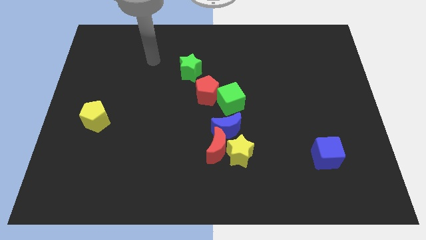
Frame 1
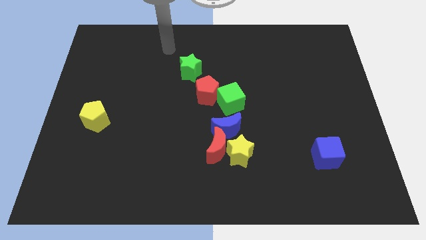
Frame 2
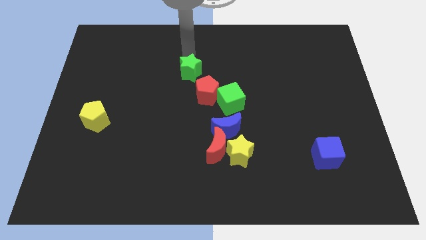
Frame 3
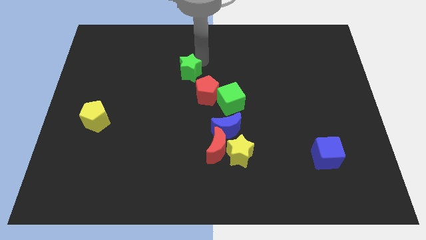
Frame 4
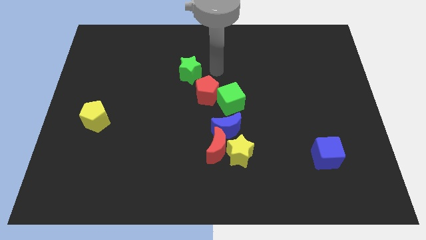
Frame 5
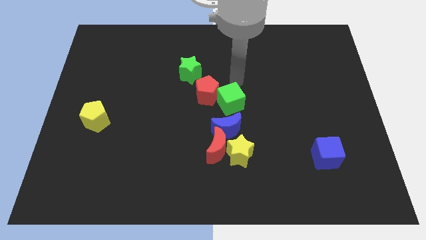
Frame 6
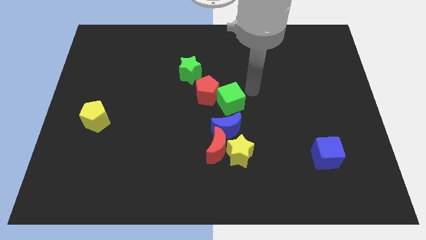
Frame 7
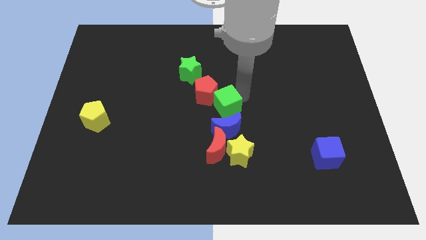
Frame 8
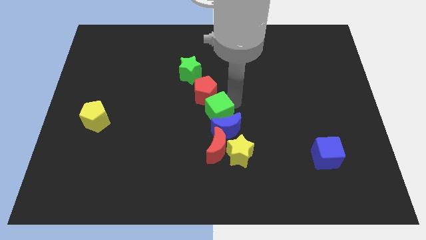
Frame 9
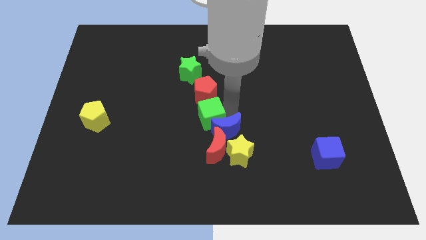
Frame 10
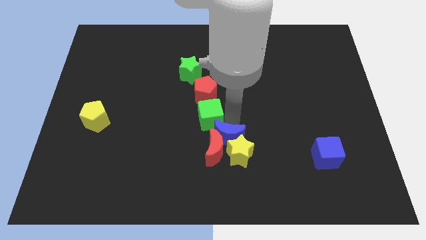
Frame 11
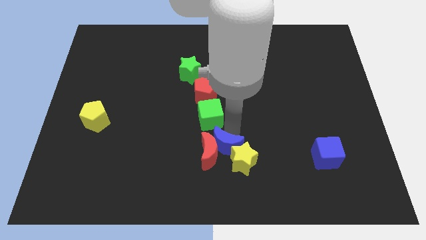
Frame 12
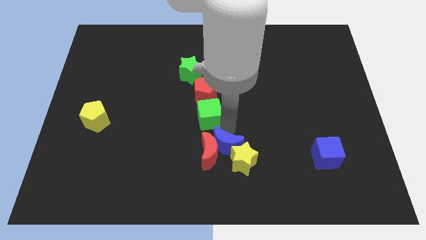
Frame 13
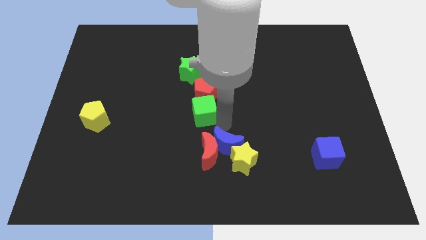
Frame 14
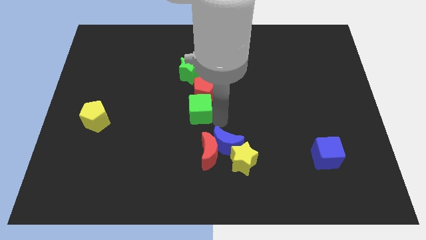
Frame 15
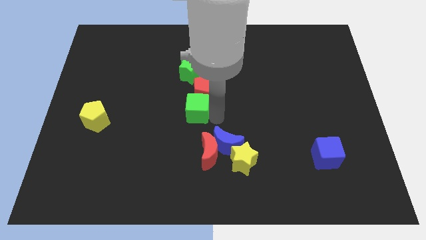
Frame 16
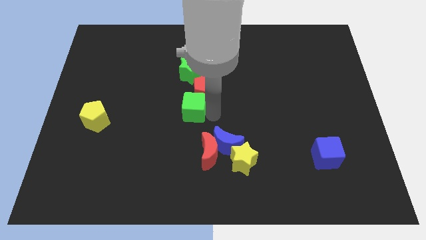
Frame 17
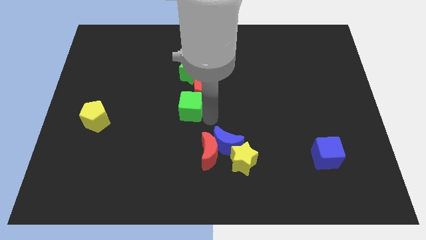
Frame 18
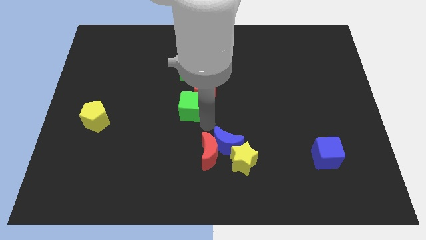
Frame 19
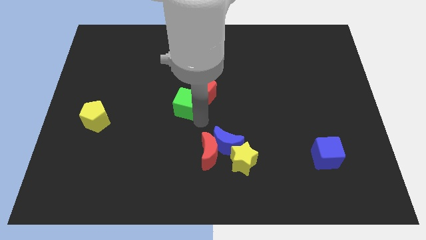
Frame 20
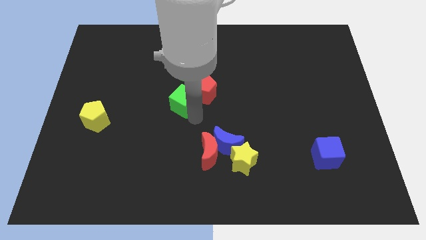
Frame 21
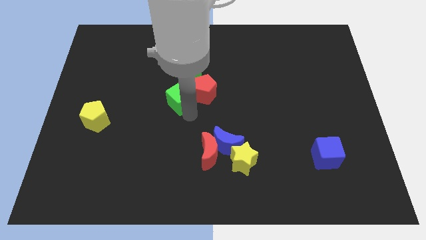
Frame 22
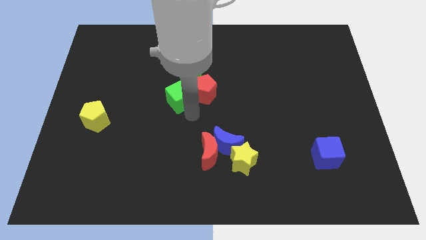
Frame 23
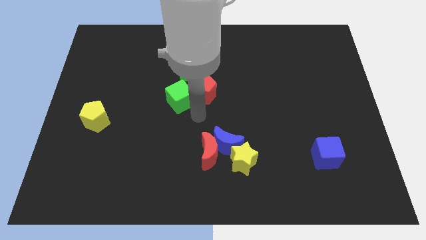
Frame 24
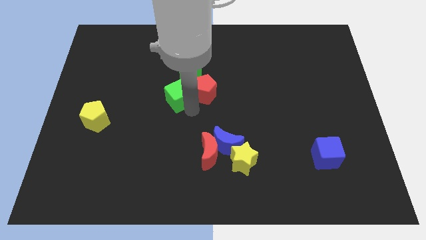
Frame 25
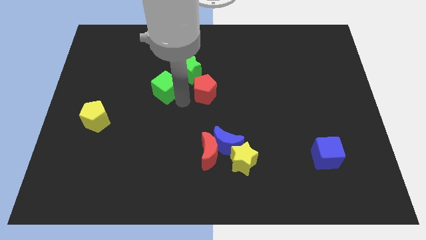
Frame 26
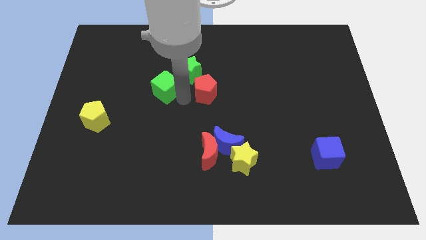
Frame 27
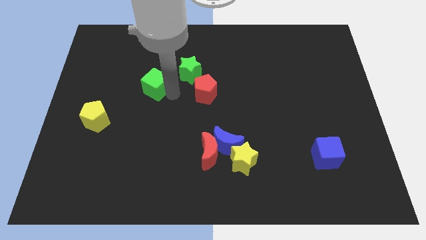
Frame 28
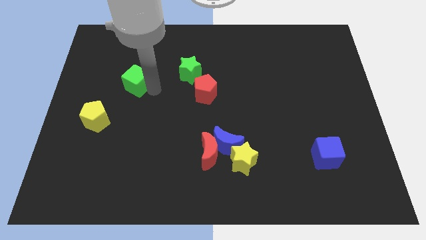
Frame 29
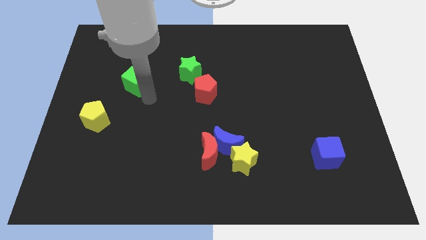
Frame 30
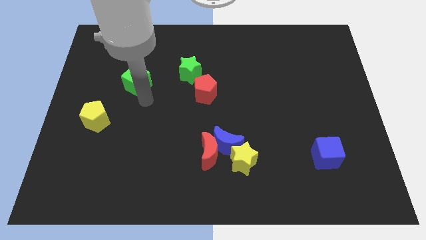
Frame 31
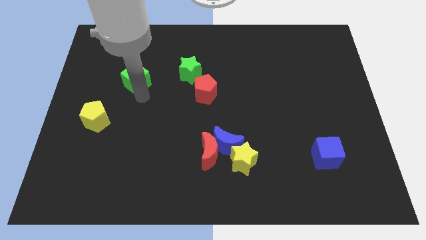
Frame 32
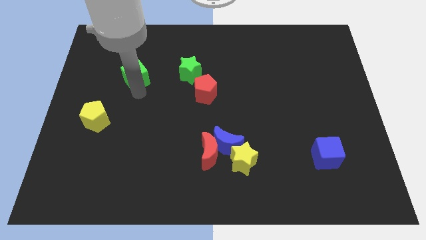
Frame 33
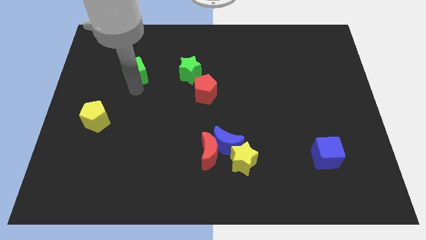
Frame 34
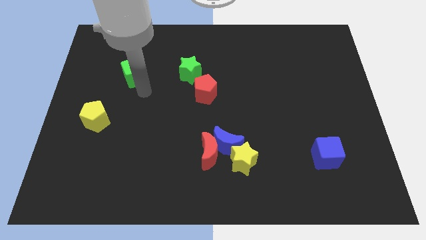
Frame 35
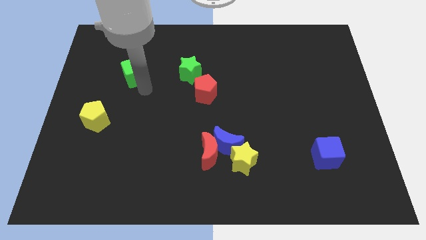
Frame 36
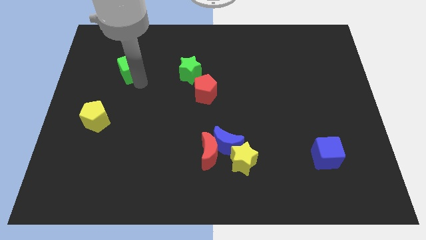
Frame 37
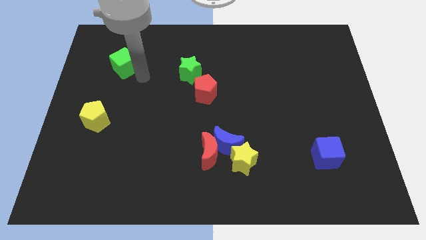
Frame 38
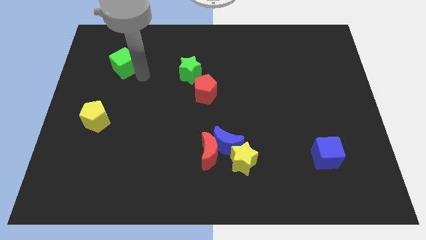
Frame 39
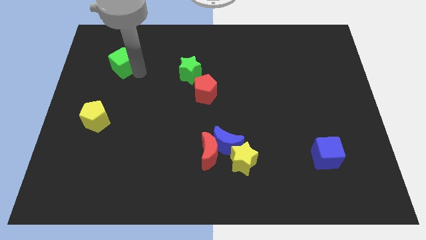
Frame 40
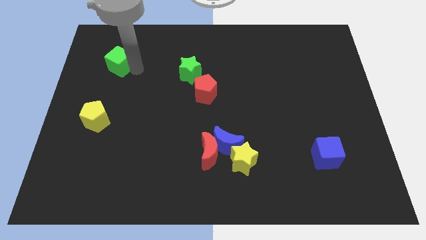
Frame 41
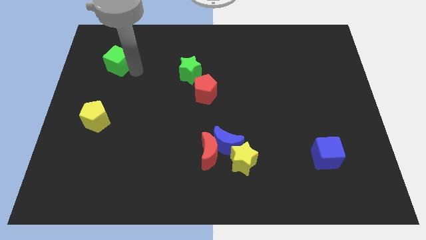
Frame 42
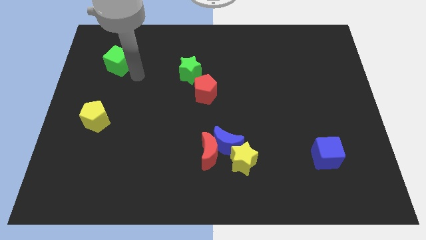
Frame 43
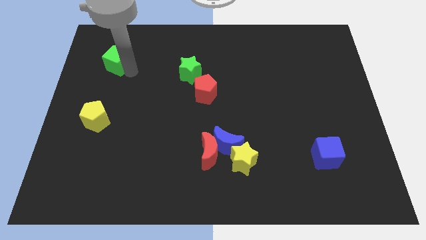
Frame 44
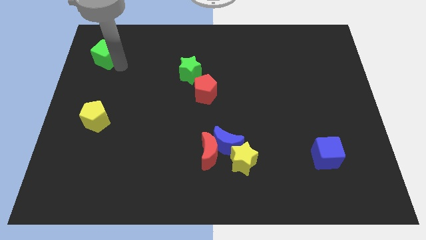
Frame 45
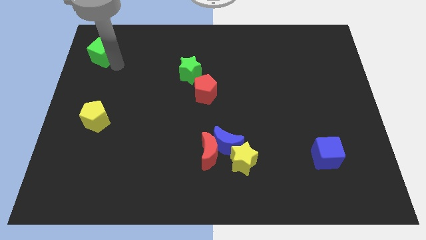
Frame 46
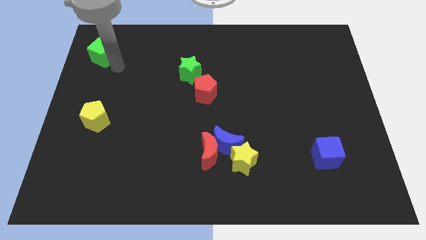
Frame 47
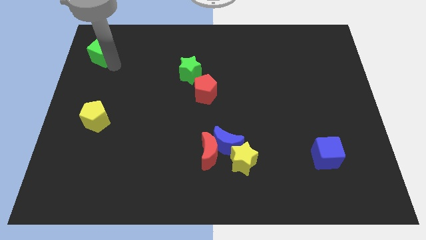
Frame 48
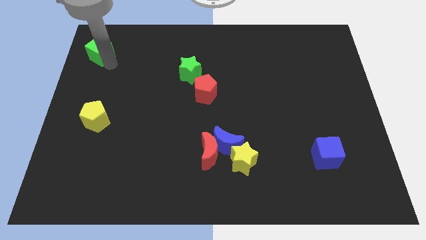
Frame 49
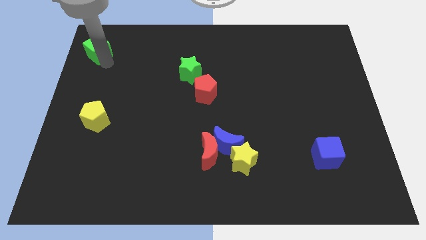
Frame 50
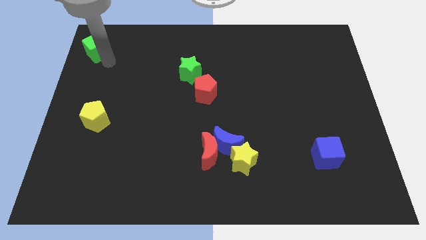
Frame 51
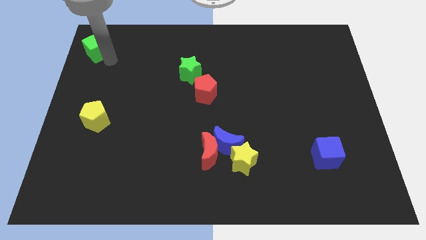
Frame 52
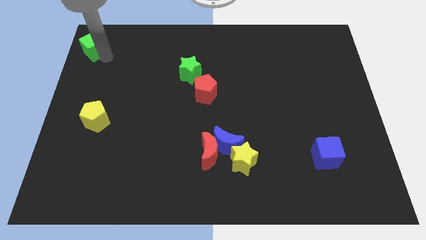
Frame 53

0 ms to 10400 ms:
put the green cube to the top left
